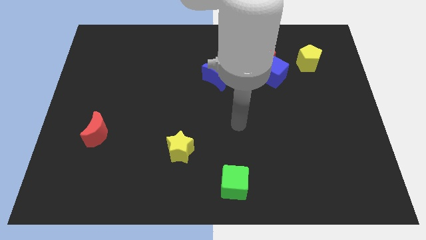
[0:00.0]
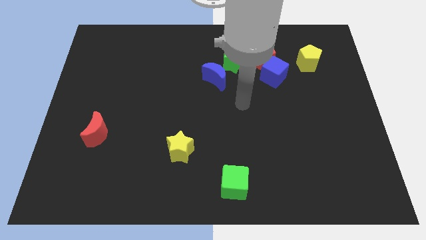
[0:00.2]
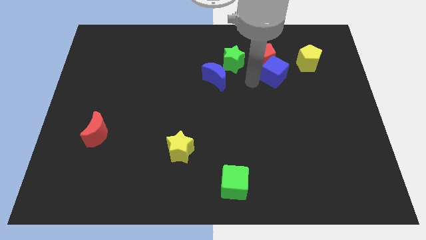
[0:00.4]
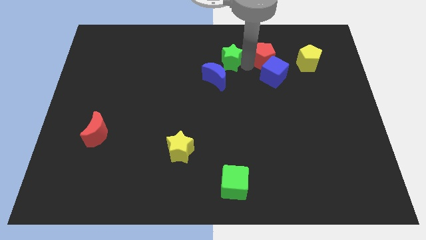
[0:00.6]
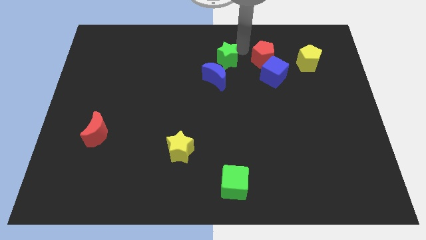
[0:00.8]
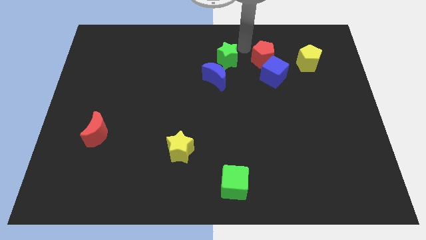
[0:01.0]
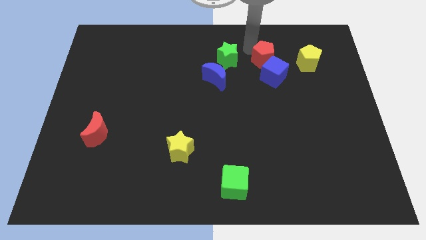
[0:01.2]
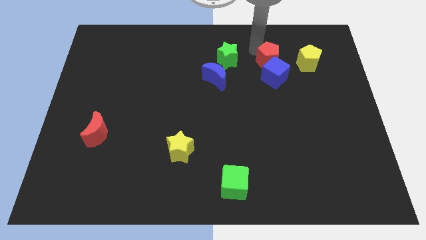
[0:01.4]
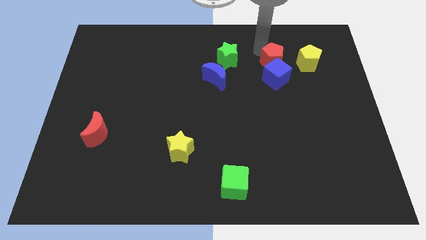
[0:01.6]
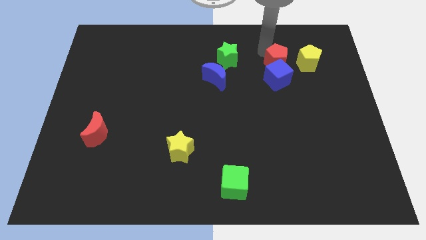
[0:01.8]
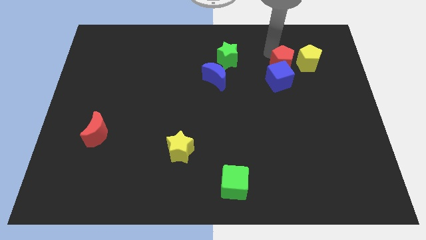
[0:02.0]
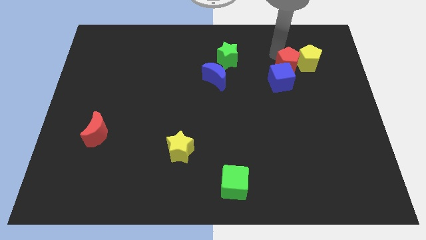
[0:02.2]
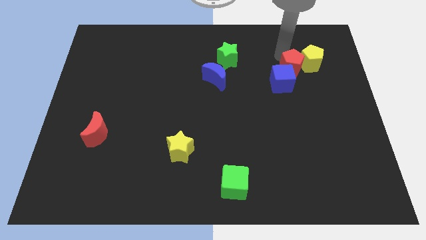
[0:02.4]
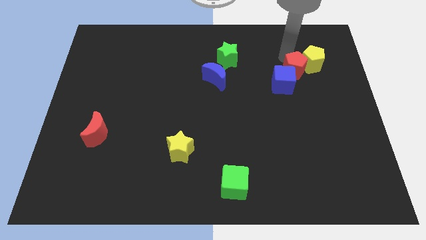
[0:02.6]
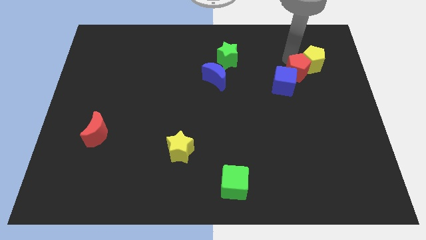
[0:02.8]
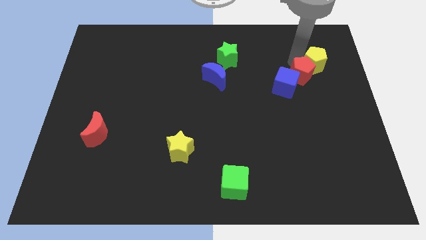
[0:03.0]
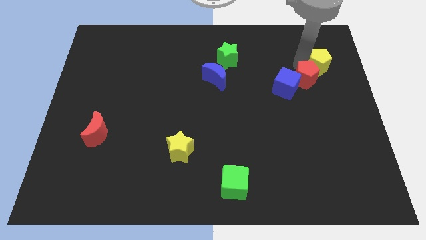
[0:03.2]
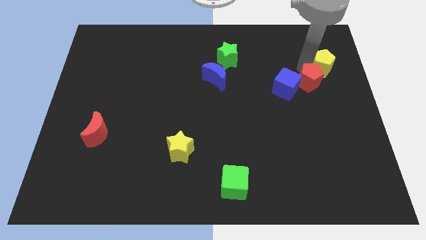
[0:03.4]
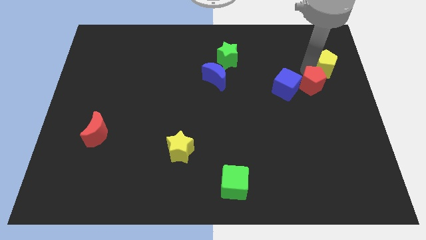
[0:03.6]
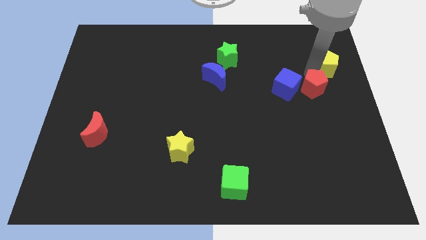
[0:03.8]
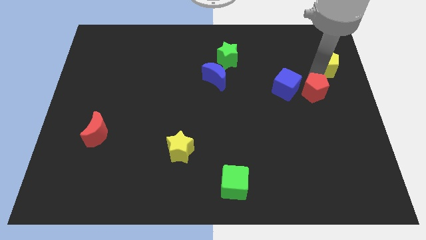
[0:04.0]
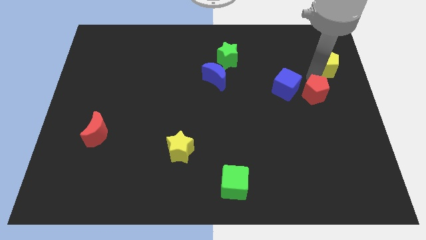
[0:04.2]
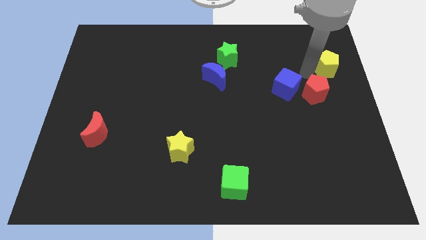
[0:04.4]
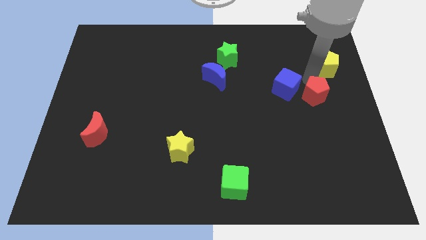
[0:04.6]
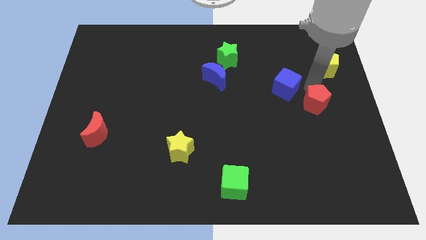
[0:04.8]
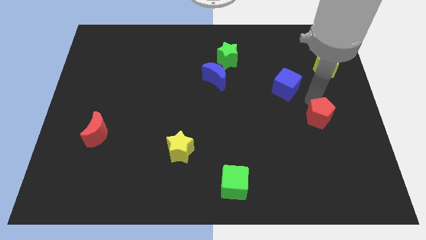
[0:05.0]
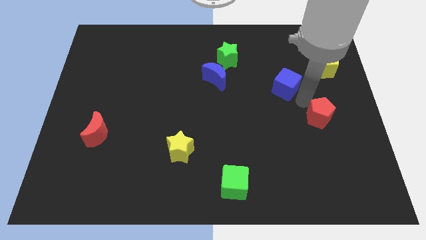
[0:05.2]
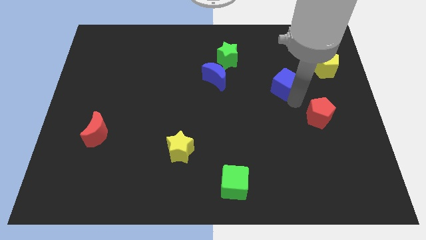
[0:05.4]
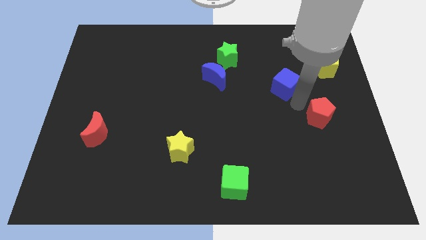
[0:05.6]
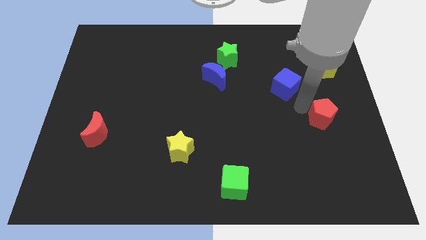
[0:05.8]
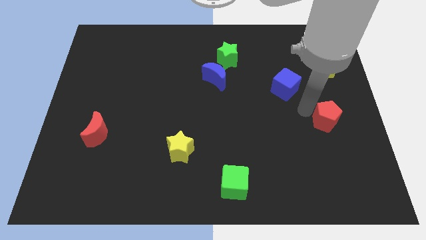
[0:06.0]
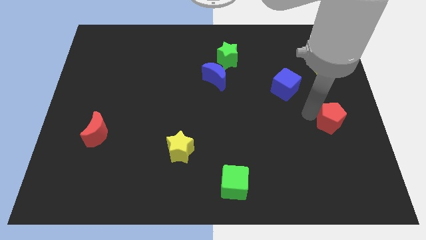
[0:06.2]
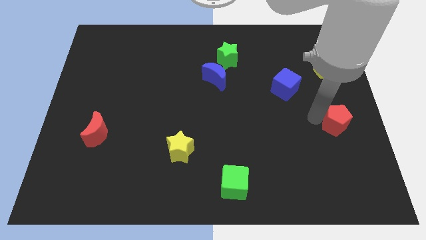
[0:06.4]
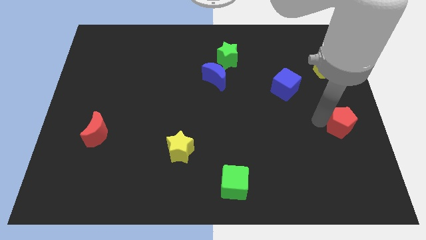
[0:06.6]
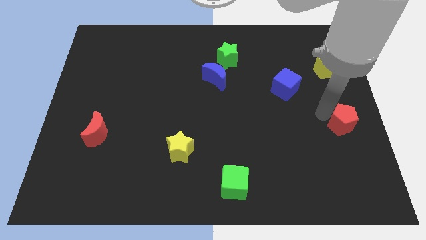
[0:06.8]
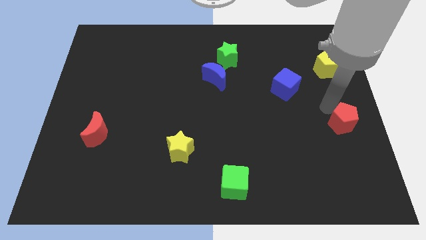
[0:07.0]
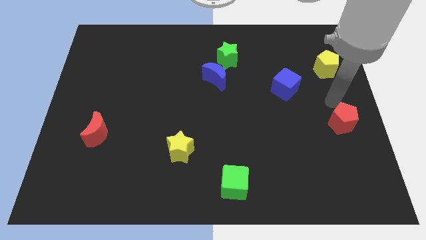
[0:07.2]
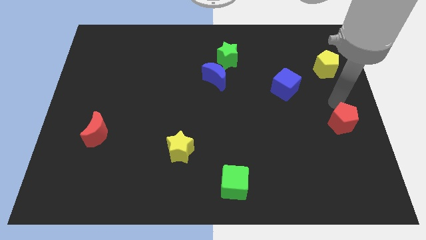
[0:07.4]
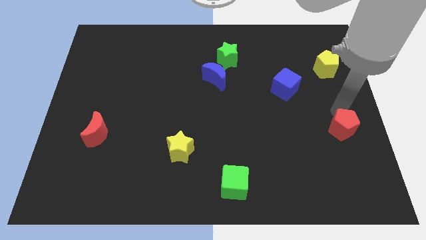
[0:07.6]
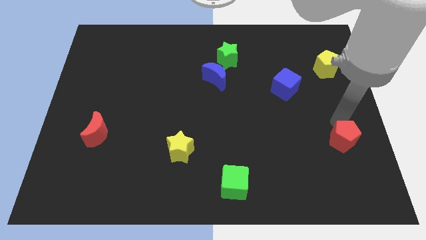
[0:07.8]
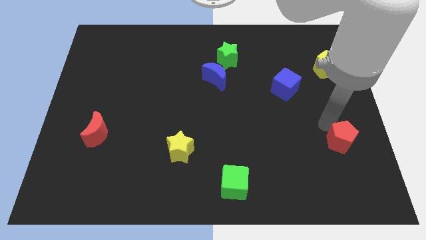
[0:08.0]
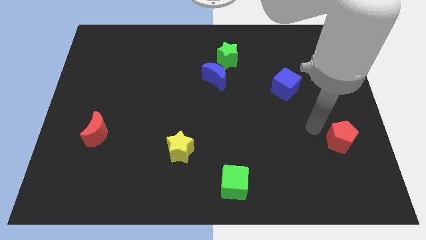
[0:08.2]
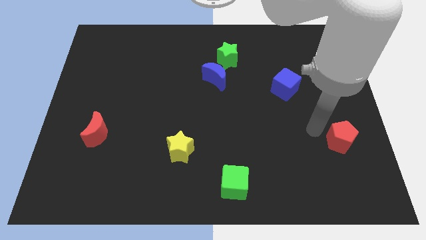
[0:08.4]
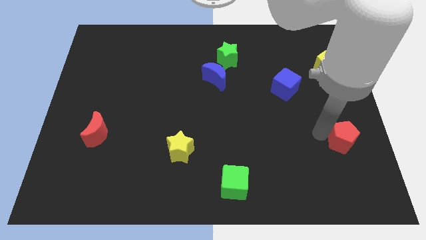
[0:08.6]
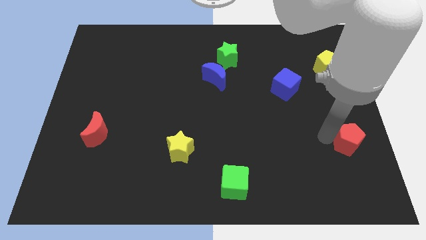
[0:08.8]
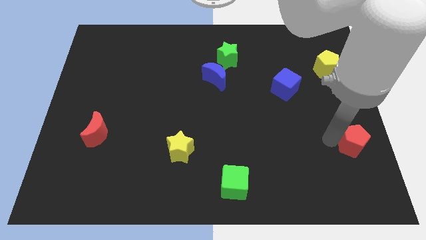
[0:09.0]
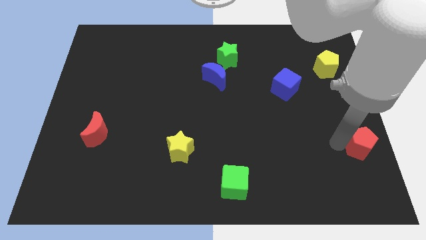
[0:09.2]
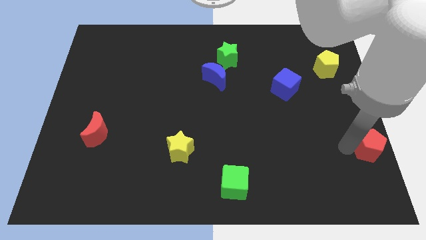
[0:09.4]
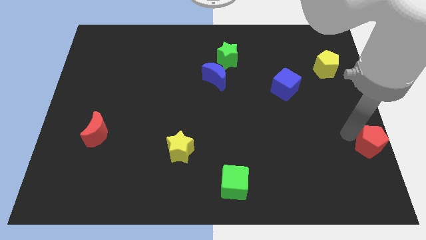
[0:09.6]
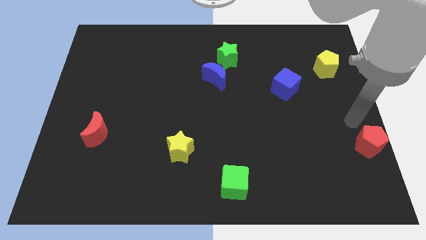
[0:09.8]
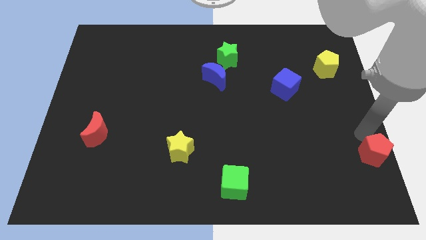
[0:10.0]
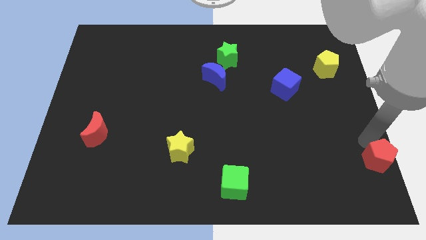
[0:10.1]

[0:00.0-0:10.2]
put the red pentagon to the bottom right

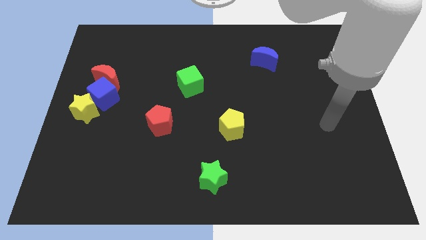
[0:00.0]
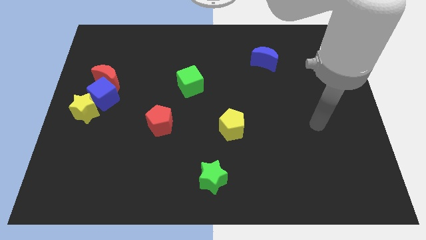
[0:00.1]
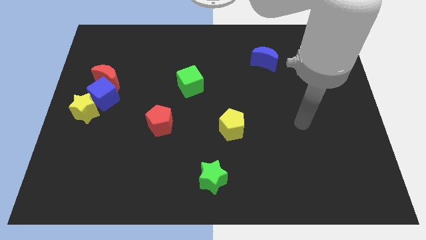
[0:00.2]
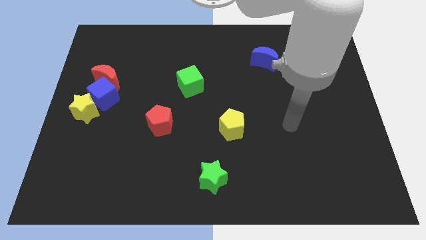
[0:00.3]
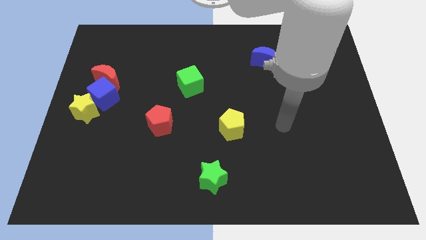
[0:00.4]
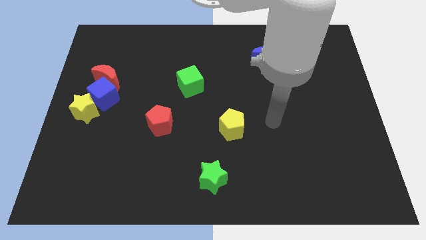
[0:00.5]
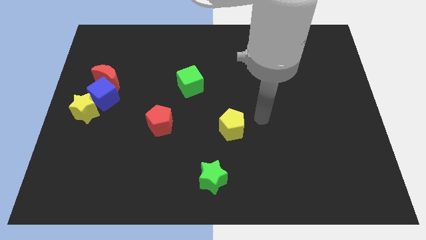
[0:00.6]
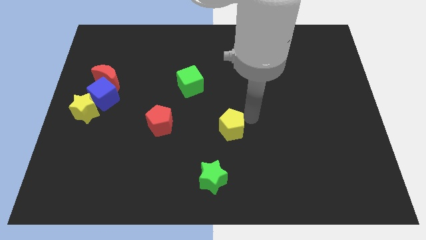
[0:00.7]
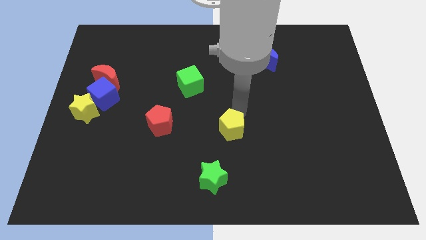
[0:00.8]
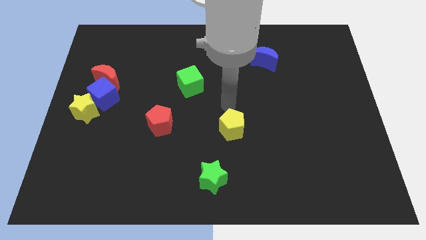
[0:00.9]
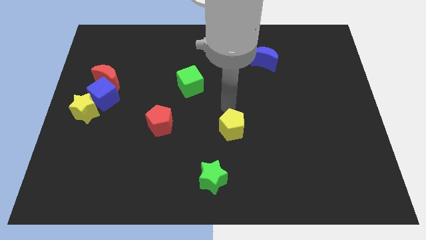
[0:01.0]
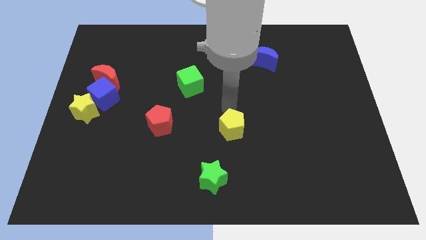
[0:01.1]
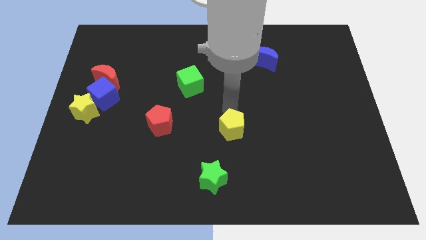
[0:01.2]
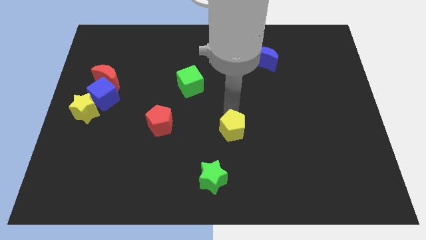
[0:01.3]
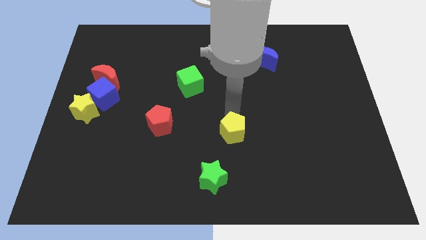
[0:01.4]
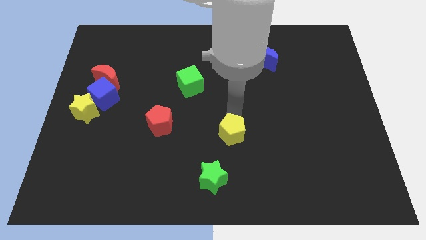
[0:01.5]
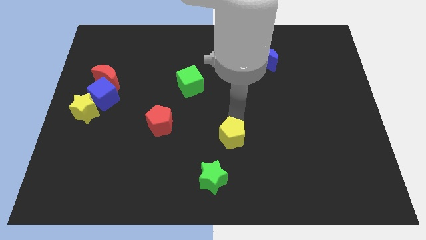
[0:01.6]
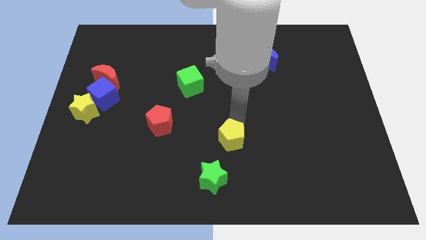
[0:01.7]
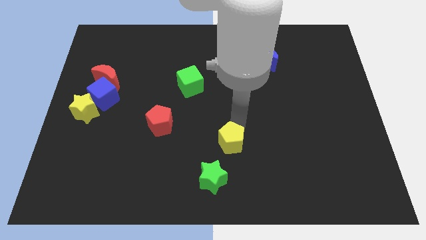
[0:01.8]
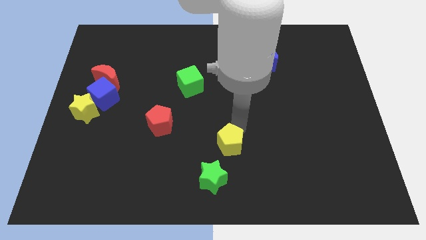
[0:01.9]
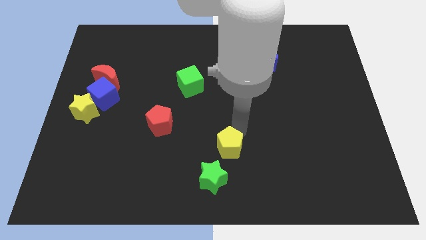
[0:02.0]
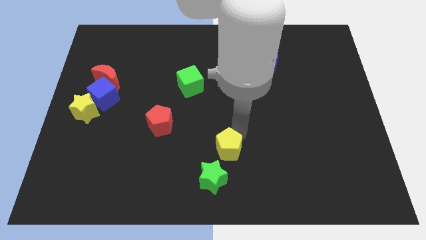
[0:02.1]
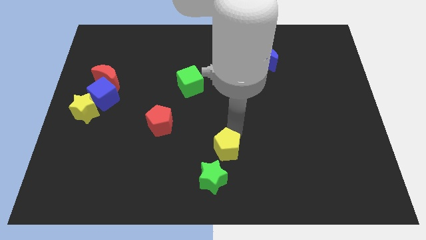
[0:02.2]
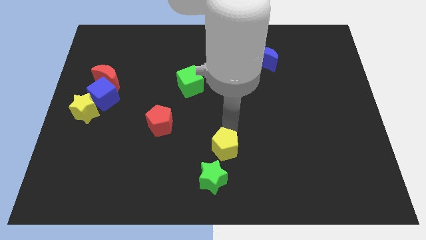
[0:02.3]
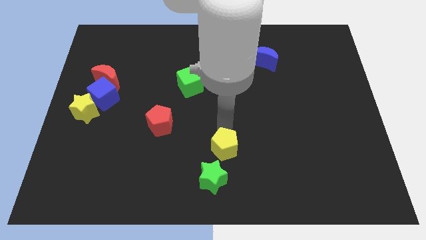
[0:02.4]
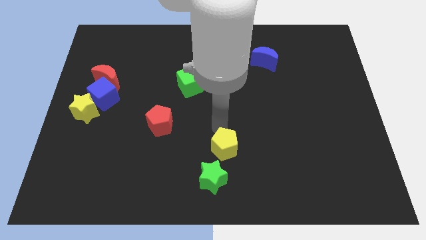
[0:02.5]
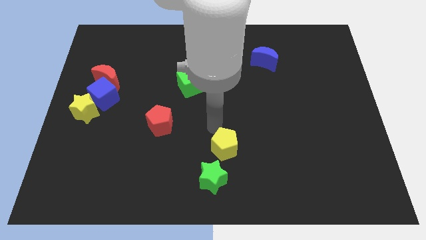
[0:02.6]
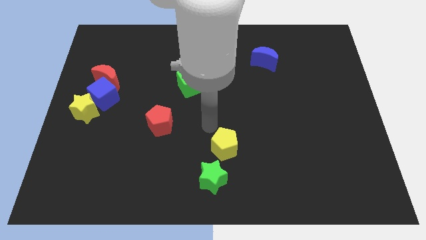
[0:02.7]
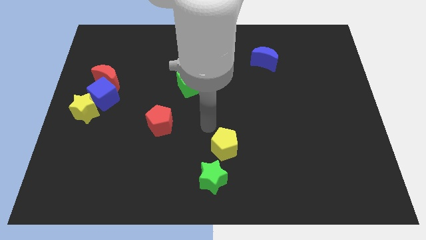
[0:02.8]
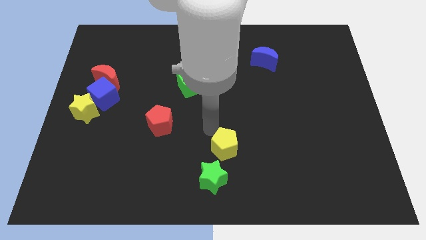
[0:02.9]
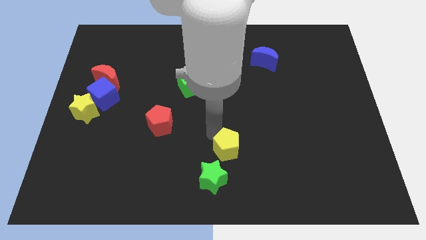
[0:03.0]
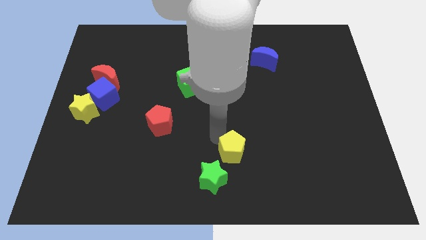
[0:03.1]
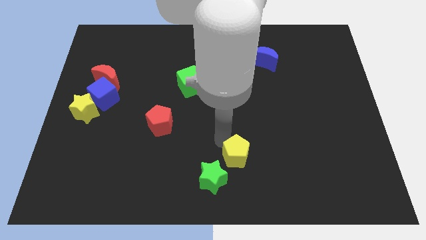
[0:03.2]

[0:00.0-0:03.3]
put the yellow pentagon to the bottom
